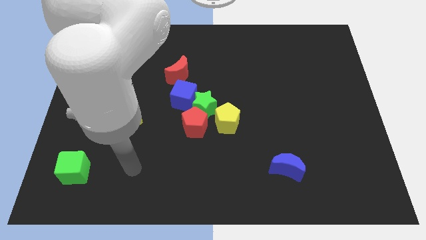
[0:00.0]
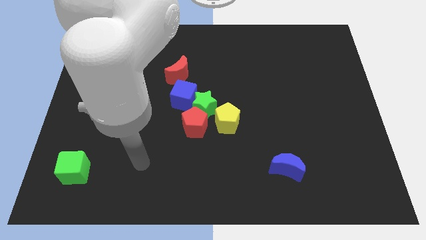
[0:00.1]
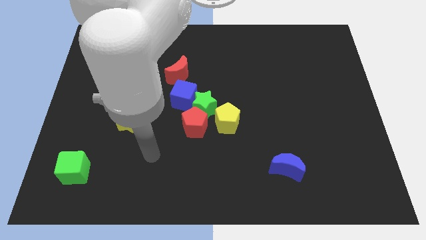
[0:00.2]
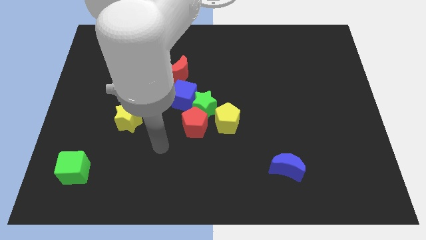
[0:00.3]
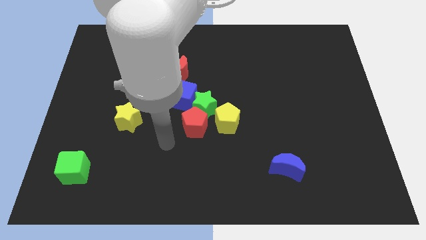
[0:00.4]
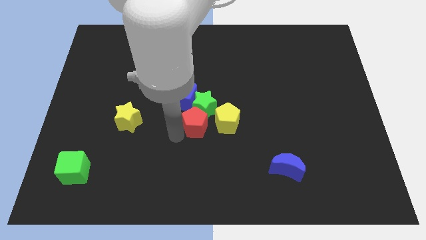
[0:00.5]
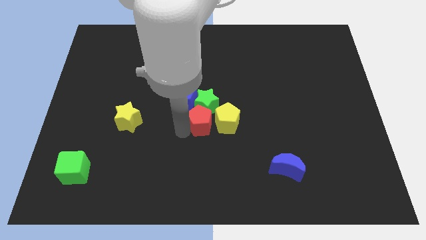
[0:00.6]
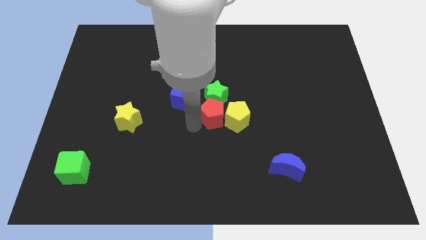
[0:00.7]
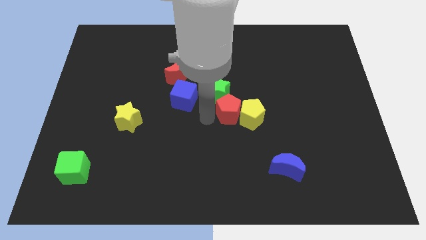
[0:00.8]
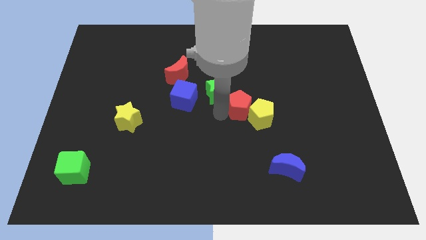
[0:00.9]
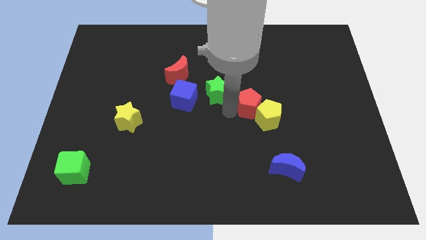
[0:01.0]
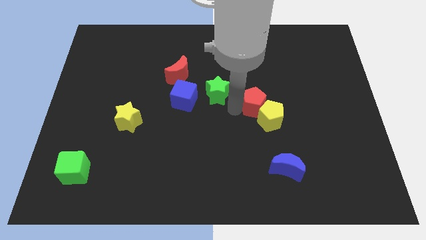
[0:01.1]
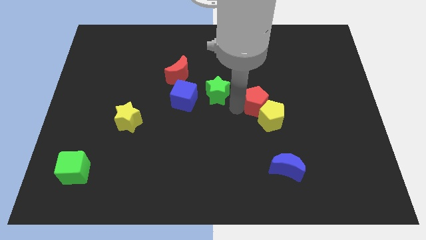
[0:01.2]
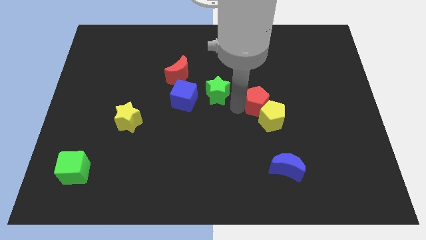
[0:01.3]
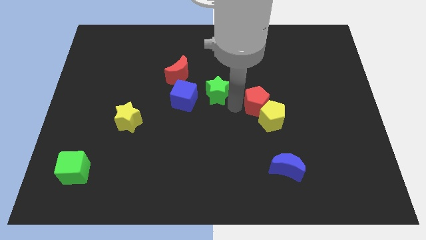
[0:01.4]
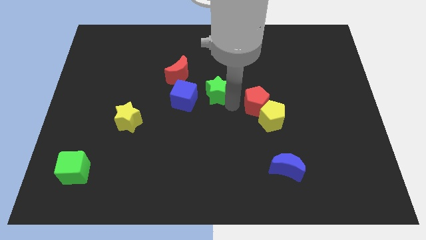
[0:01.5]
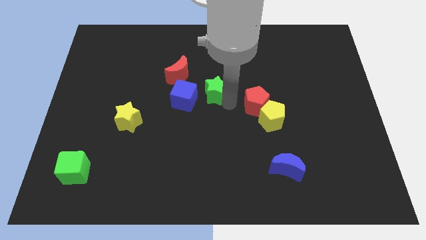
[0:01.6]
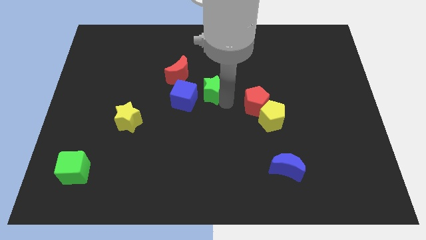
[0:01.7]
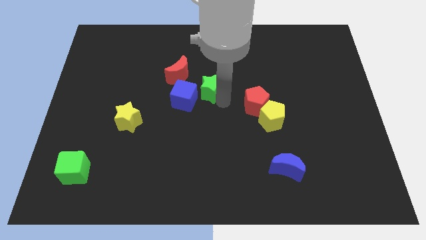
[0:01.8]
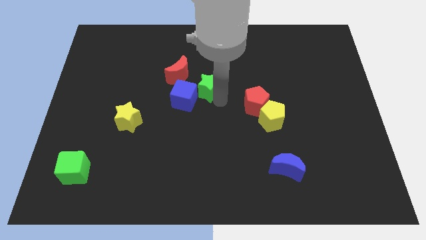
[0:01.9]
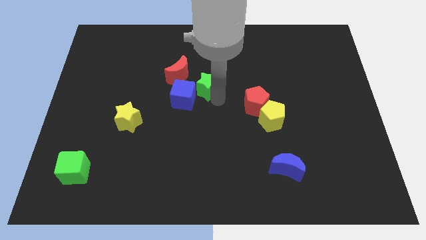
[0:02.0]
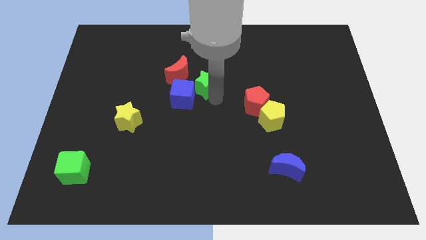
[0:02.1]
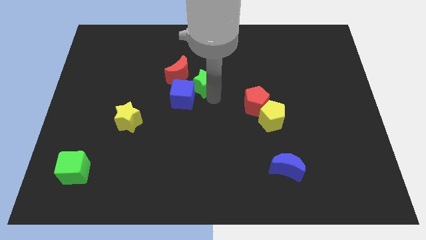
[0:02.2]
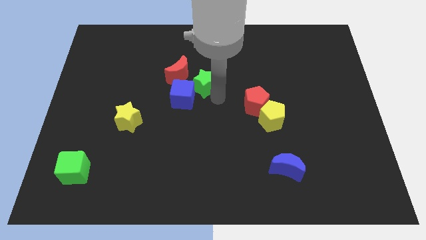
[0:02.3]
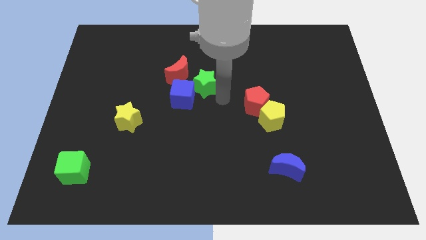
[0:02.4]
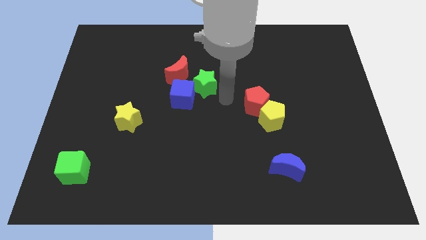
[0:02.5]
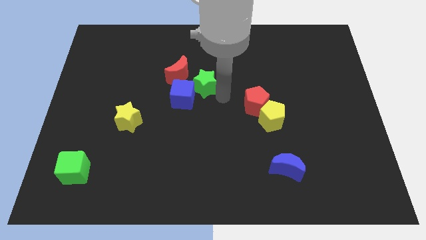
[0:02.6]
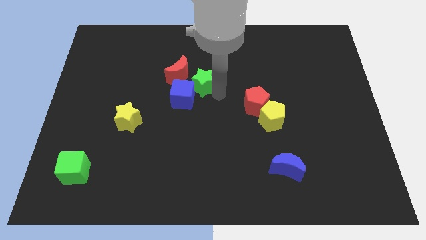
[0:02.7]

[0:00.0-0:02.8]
move the green star away from the clump

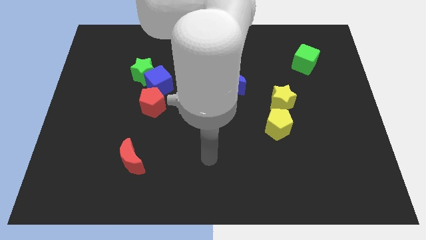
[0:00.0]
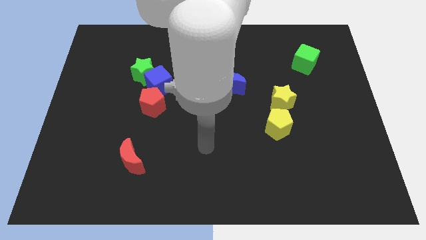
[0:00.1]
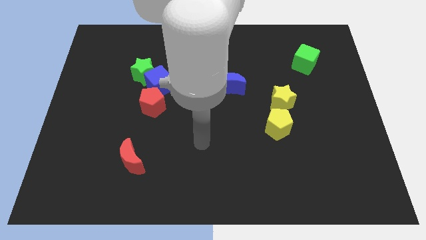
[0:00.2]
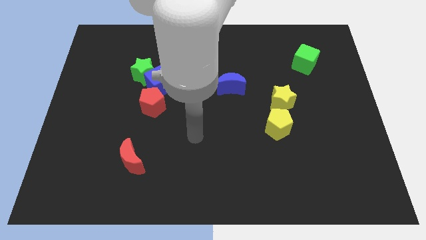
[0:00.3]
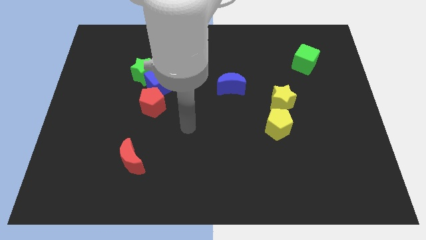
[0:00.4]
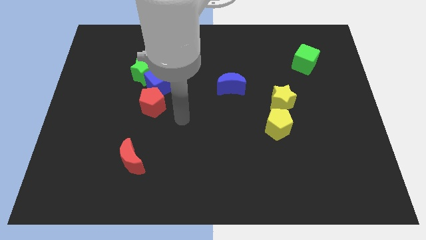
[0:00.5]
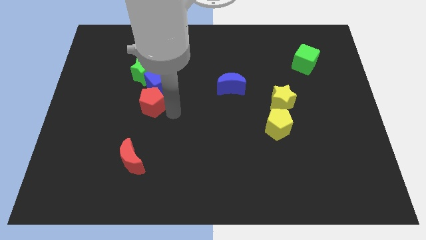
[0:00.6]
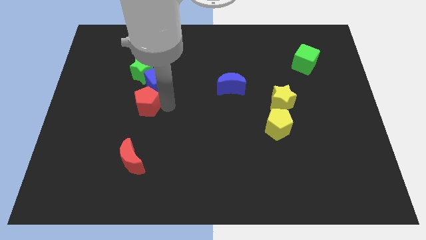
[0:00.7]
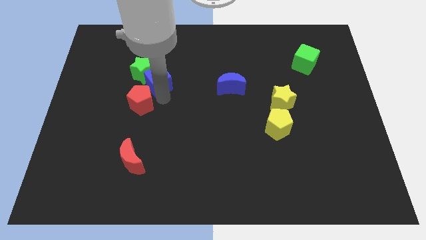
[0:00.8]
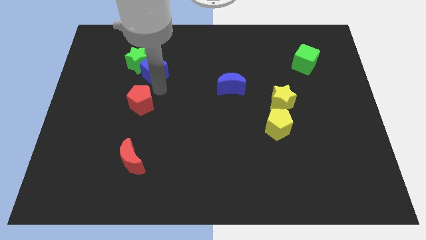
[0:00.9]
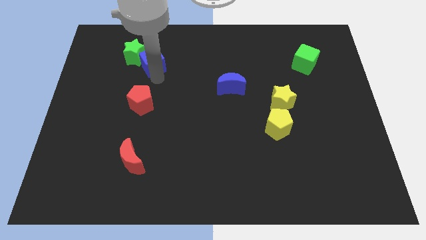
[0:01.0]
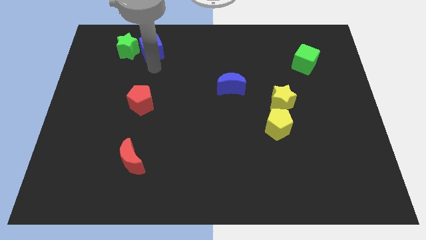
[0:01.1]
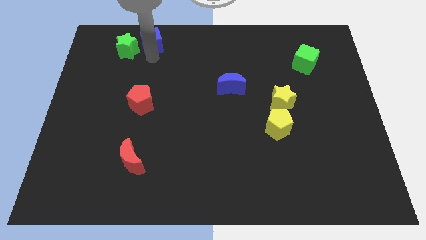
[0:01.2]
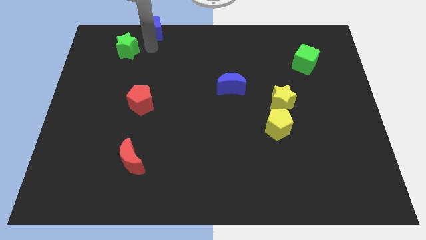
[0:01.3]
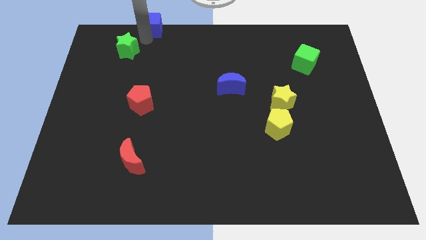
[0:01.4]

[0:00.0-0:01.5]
move the green star away from the blue cube

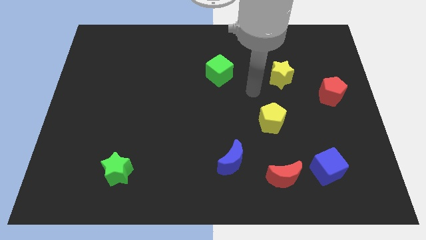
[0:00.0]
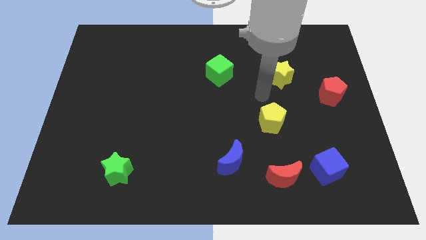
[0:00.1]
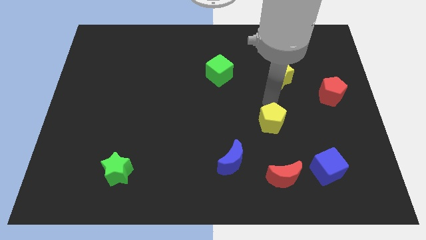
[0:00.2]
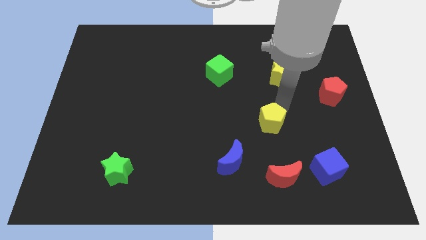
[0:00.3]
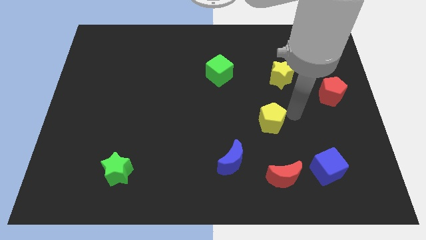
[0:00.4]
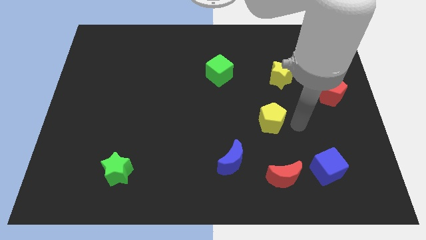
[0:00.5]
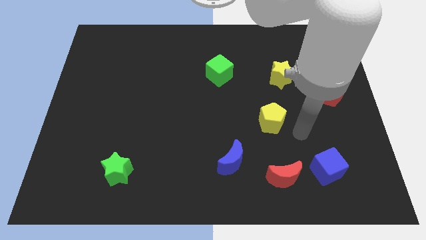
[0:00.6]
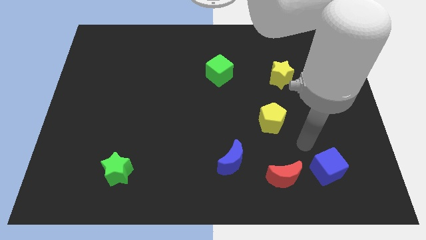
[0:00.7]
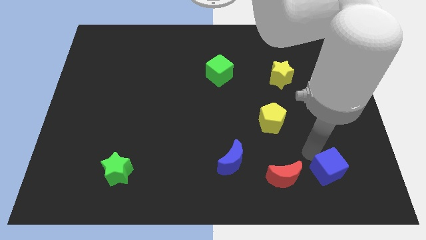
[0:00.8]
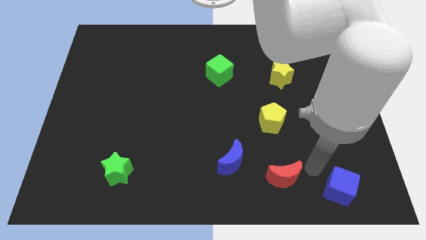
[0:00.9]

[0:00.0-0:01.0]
separate the red moon from the blue cube

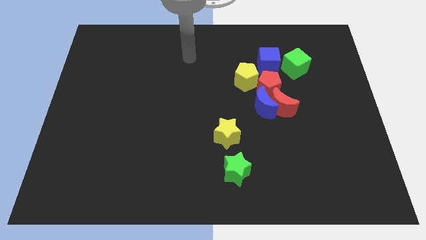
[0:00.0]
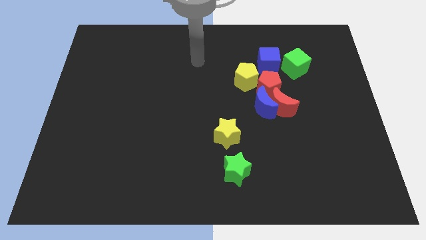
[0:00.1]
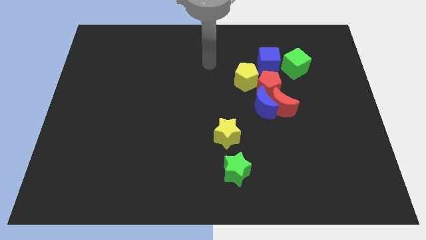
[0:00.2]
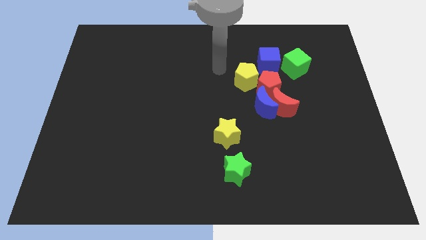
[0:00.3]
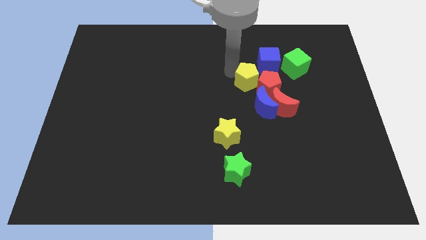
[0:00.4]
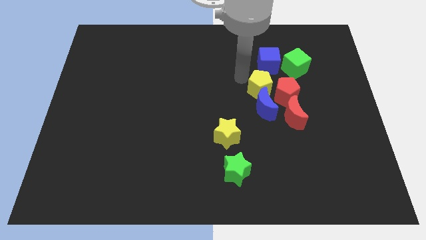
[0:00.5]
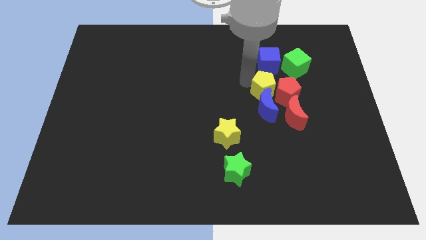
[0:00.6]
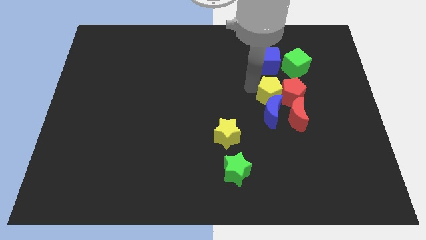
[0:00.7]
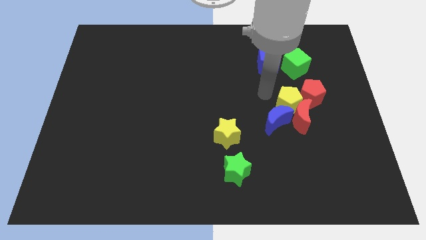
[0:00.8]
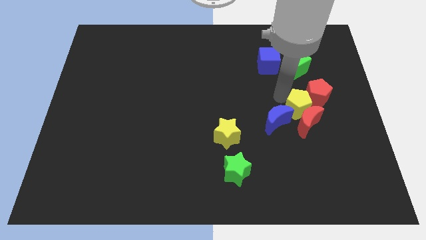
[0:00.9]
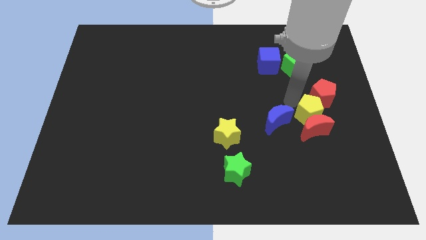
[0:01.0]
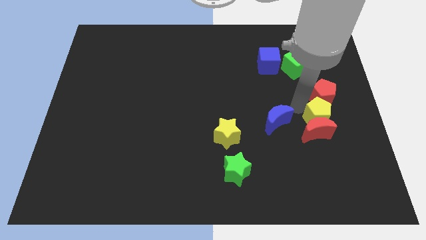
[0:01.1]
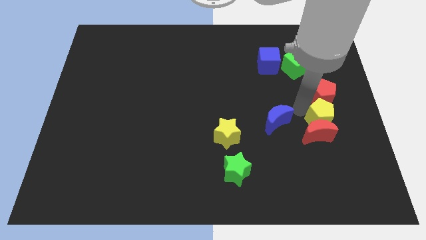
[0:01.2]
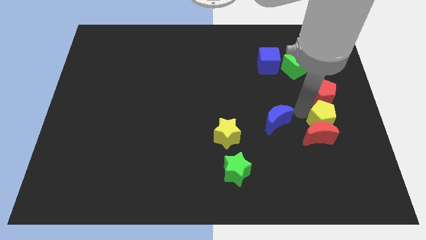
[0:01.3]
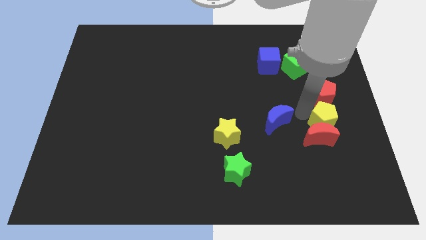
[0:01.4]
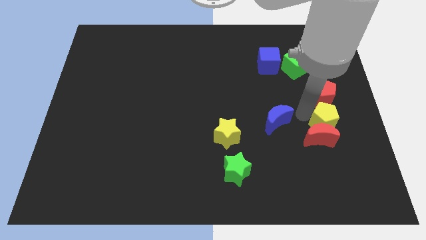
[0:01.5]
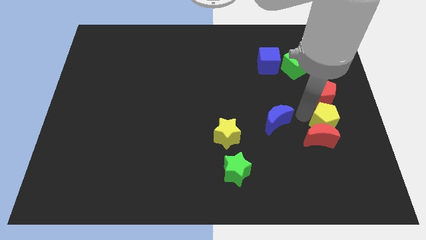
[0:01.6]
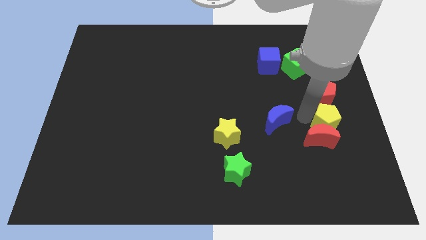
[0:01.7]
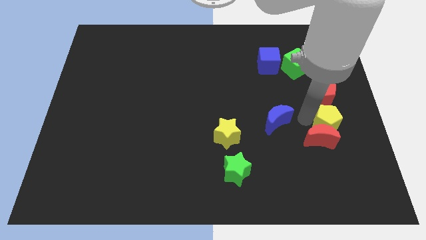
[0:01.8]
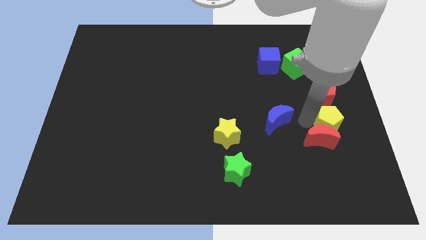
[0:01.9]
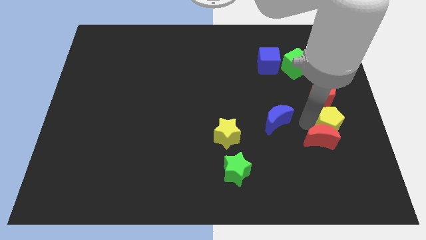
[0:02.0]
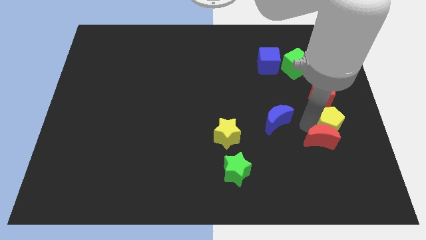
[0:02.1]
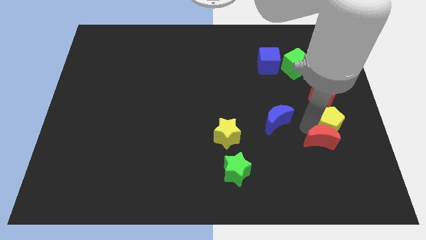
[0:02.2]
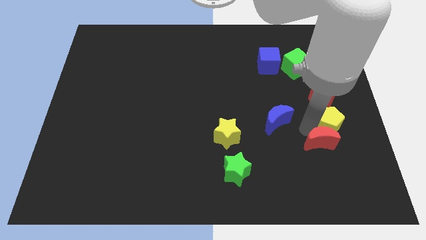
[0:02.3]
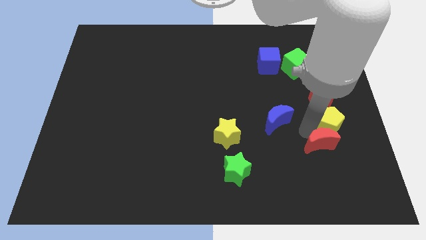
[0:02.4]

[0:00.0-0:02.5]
separate the red moon from the blue moon and red pentagon

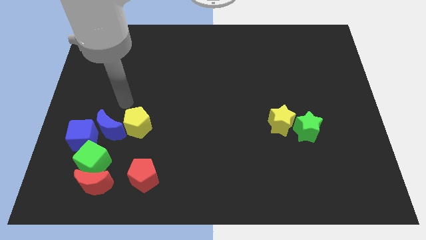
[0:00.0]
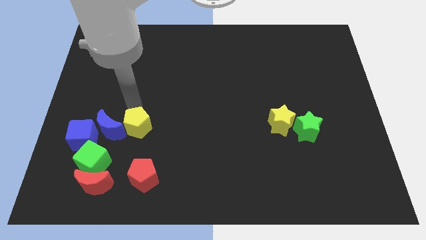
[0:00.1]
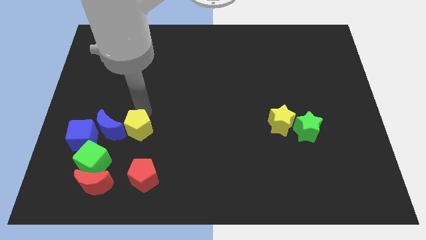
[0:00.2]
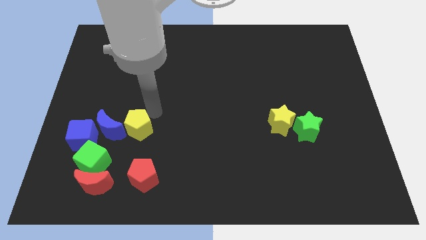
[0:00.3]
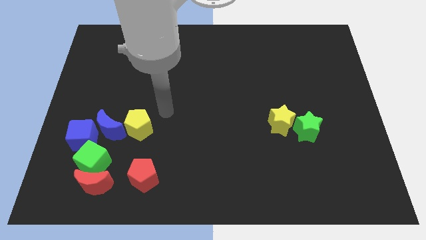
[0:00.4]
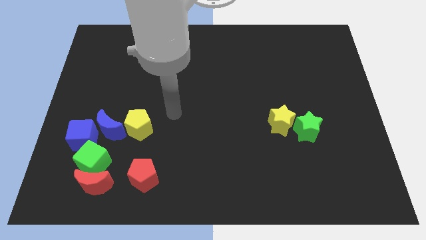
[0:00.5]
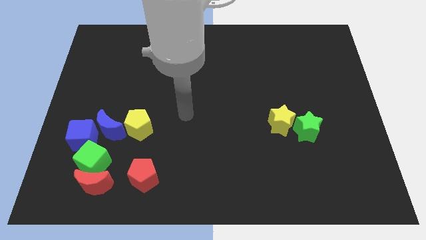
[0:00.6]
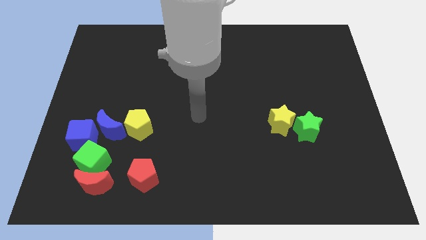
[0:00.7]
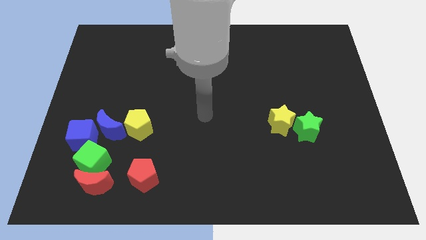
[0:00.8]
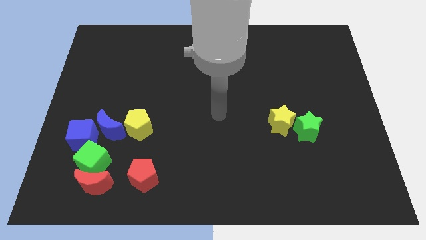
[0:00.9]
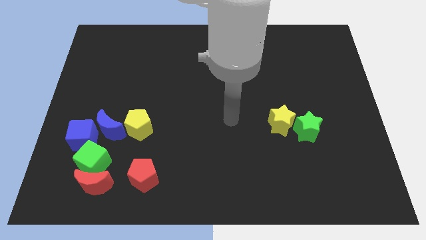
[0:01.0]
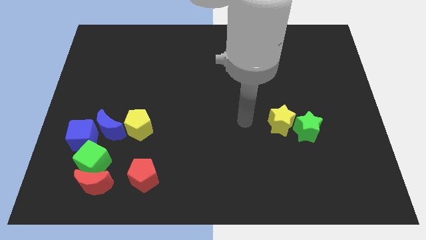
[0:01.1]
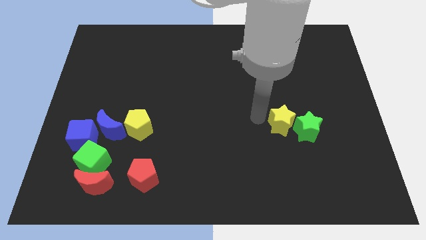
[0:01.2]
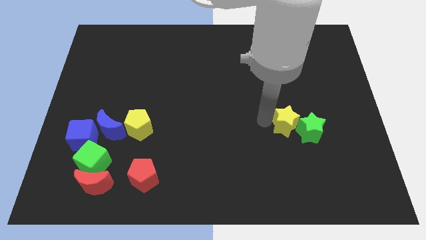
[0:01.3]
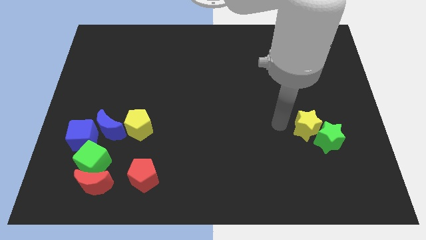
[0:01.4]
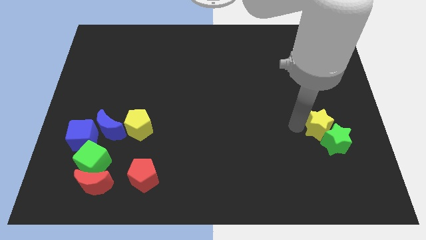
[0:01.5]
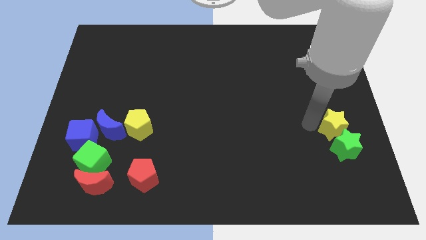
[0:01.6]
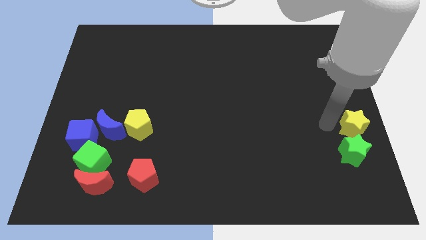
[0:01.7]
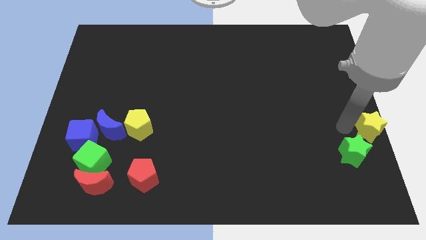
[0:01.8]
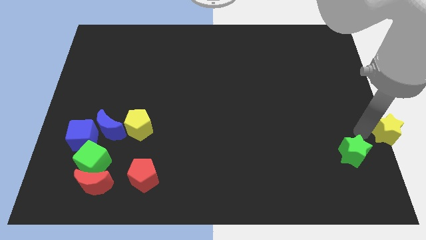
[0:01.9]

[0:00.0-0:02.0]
move the green star away from the yellow star
